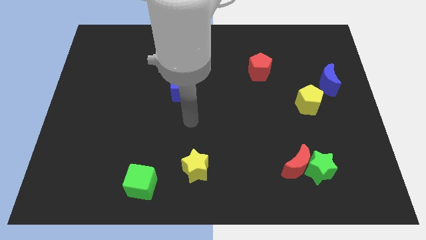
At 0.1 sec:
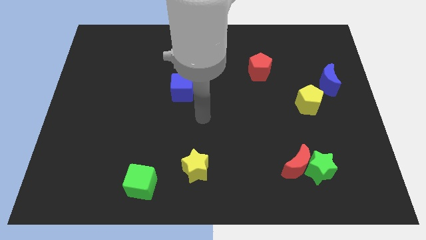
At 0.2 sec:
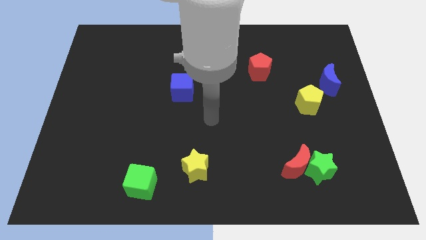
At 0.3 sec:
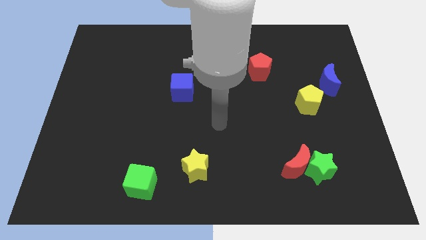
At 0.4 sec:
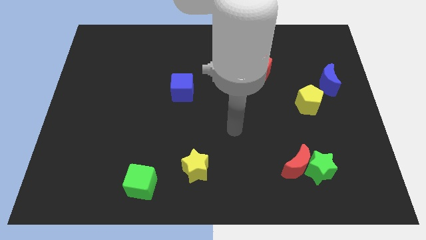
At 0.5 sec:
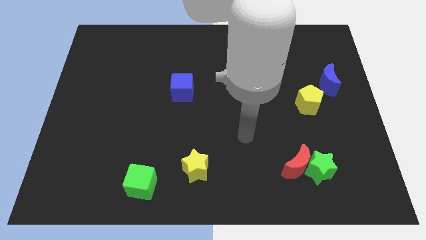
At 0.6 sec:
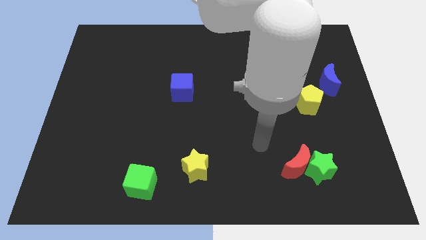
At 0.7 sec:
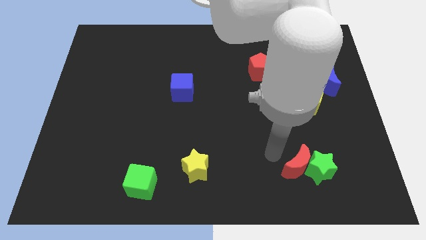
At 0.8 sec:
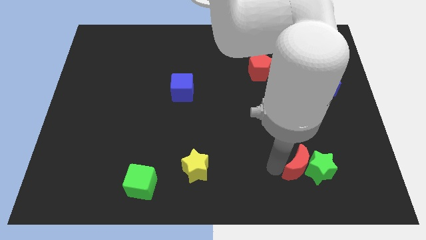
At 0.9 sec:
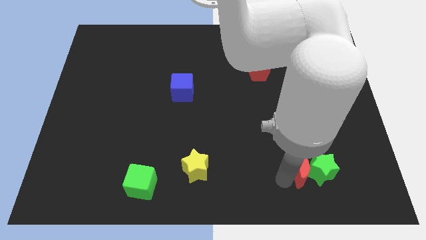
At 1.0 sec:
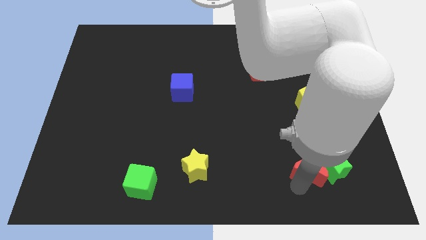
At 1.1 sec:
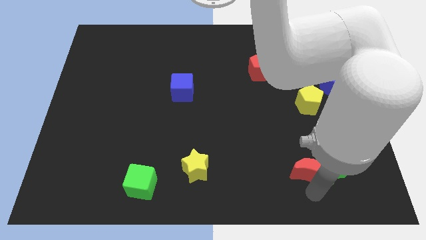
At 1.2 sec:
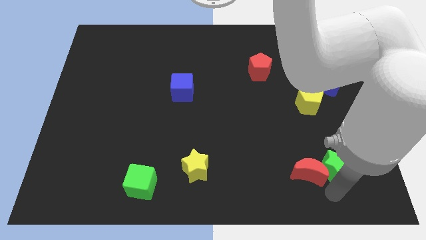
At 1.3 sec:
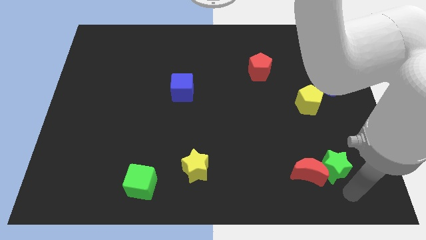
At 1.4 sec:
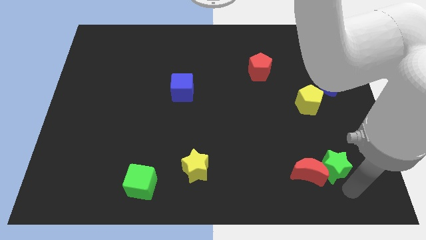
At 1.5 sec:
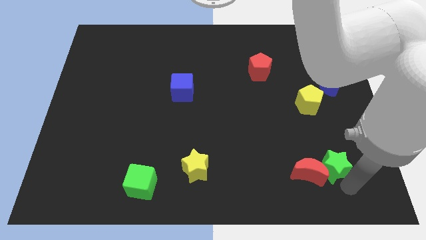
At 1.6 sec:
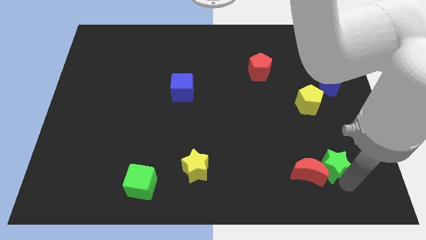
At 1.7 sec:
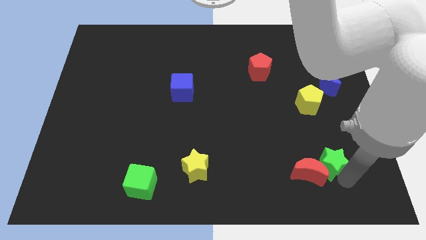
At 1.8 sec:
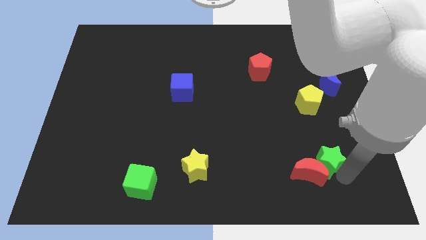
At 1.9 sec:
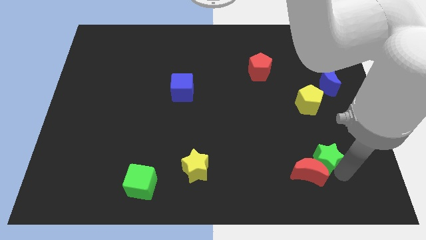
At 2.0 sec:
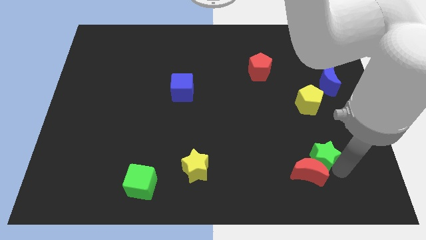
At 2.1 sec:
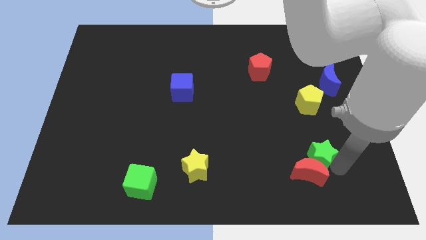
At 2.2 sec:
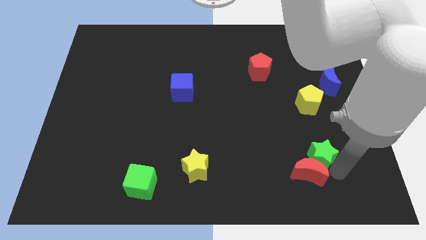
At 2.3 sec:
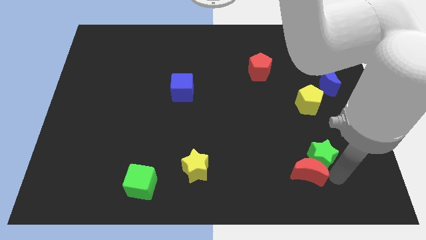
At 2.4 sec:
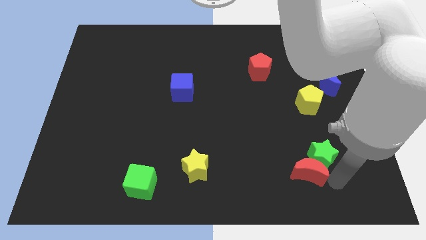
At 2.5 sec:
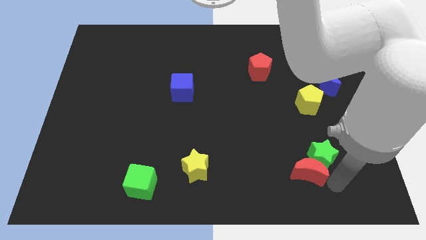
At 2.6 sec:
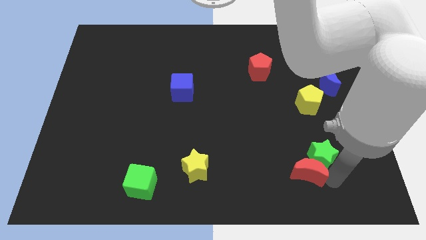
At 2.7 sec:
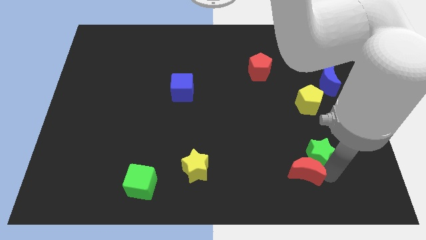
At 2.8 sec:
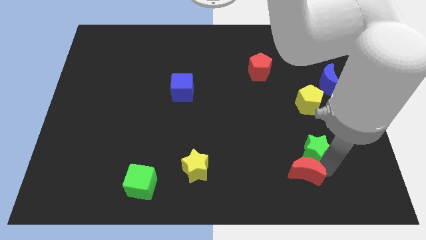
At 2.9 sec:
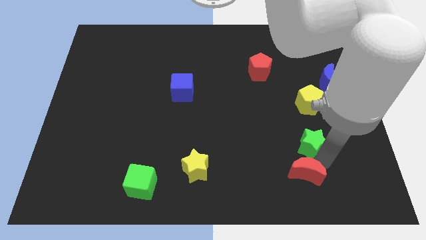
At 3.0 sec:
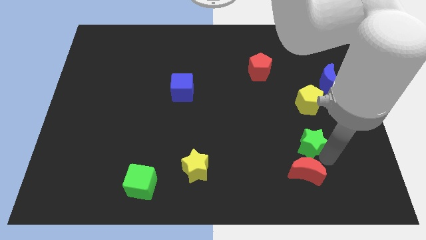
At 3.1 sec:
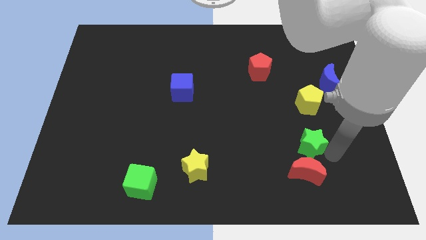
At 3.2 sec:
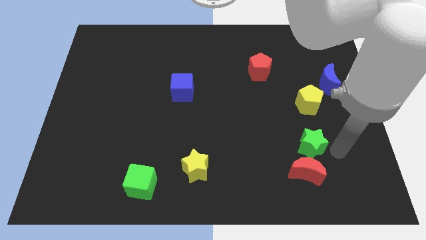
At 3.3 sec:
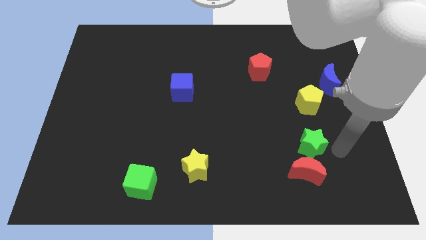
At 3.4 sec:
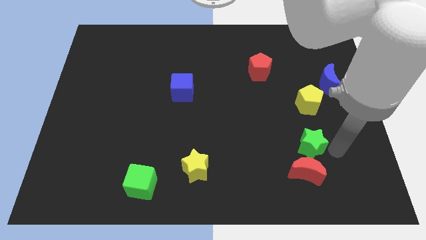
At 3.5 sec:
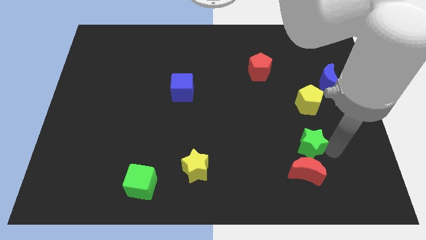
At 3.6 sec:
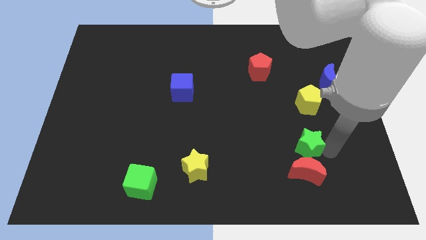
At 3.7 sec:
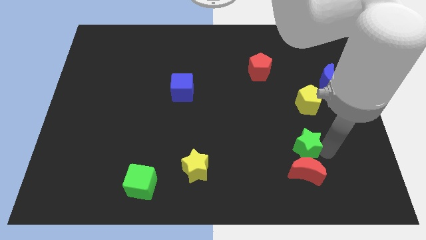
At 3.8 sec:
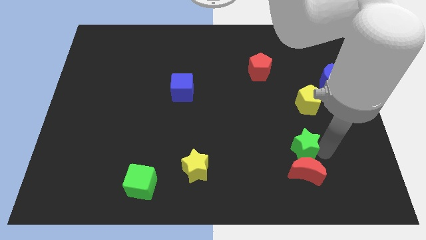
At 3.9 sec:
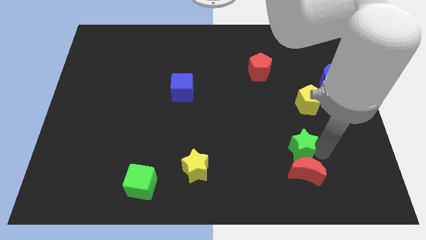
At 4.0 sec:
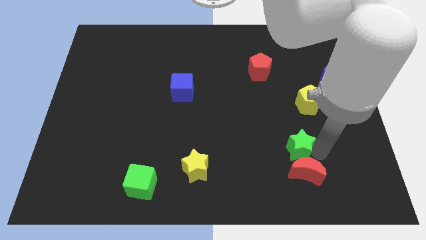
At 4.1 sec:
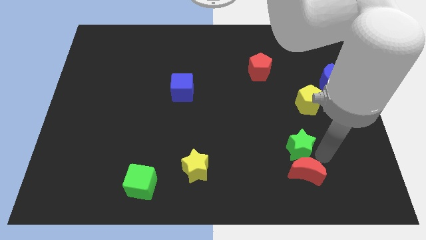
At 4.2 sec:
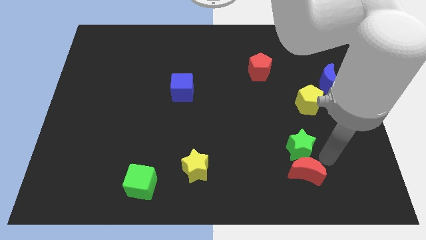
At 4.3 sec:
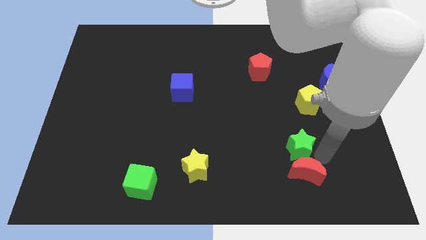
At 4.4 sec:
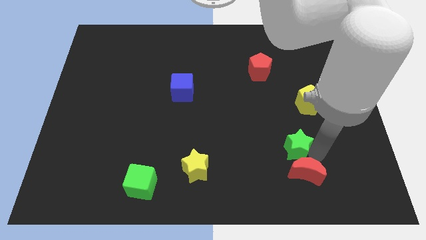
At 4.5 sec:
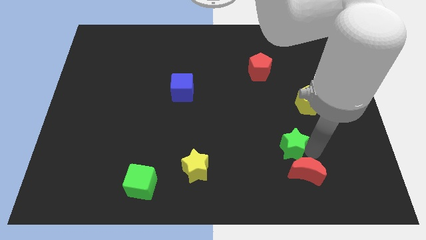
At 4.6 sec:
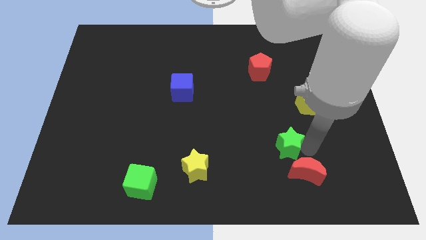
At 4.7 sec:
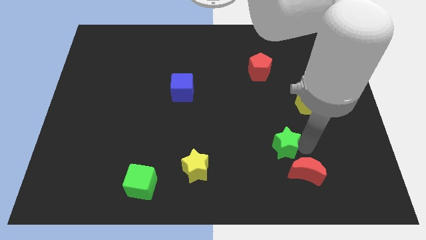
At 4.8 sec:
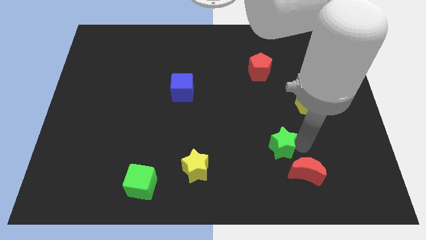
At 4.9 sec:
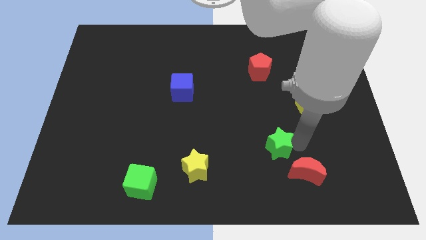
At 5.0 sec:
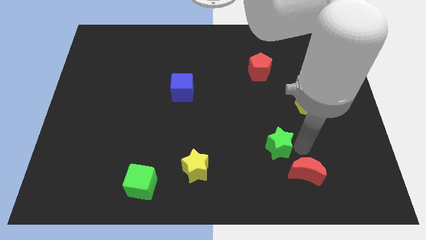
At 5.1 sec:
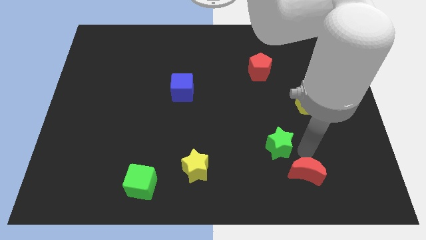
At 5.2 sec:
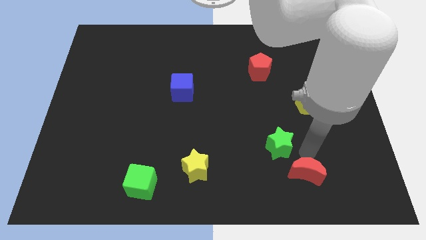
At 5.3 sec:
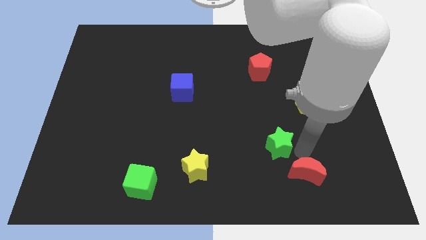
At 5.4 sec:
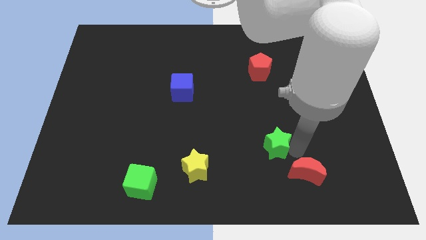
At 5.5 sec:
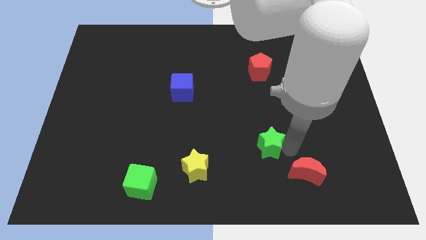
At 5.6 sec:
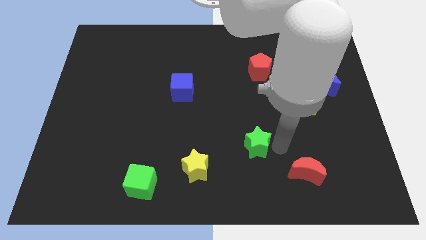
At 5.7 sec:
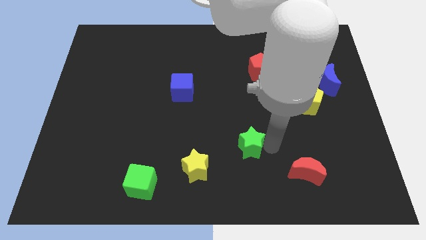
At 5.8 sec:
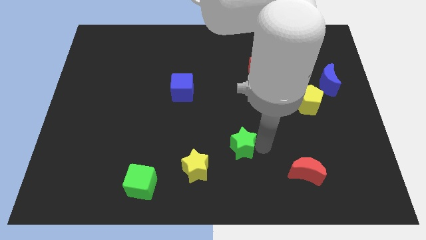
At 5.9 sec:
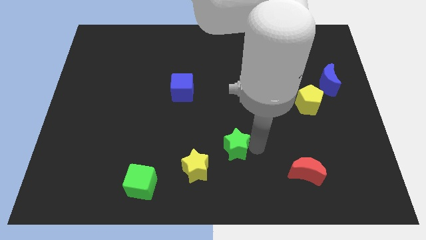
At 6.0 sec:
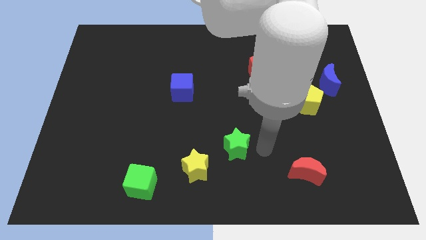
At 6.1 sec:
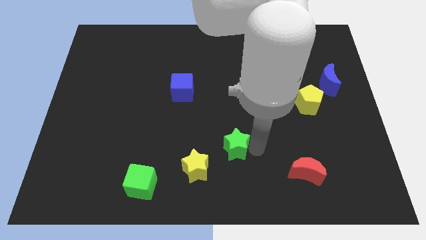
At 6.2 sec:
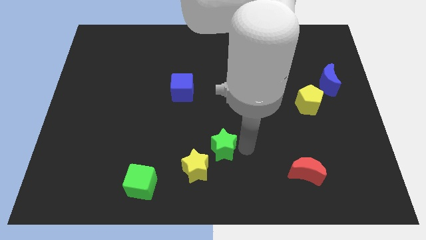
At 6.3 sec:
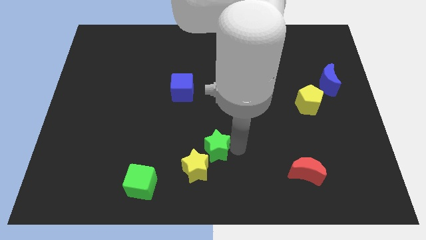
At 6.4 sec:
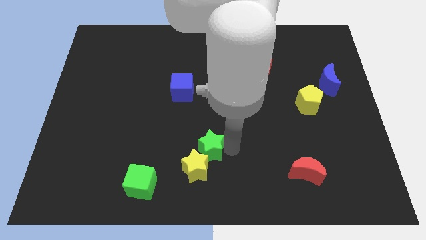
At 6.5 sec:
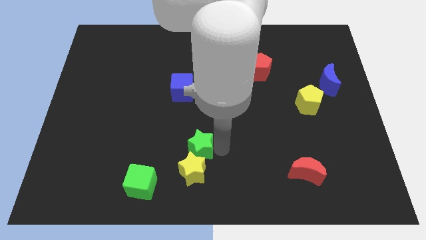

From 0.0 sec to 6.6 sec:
push the green star to the top left of the yellow star

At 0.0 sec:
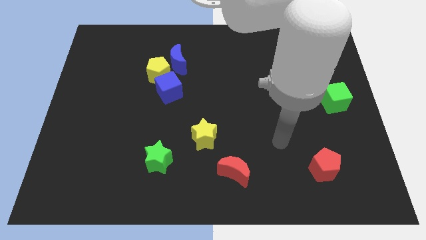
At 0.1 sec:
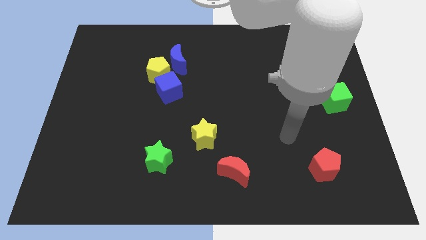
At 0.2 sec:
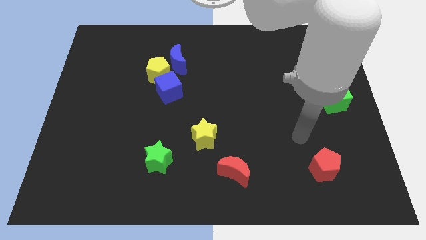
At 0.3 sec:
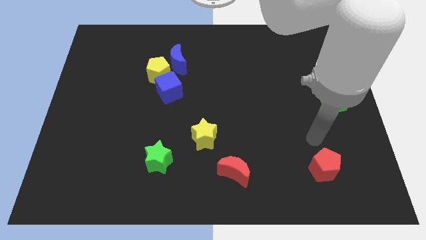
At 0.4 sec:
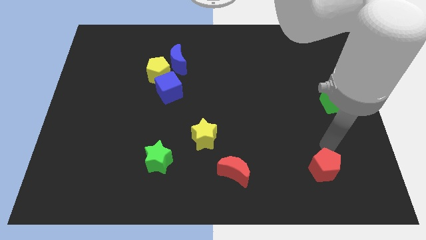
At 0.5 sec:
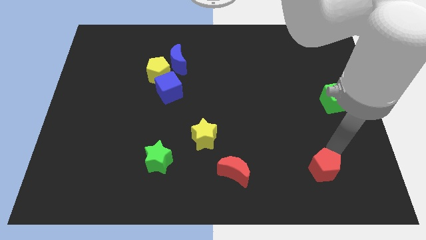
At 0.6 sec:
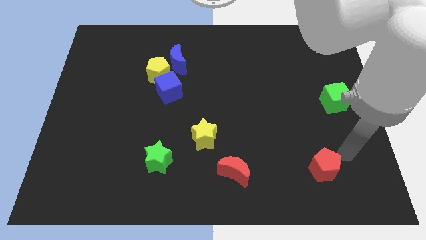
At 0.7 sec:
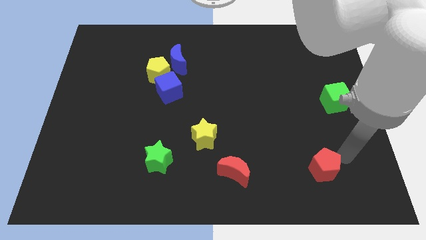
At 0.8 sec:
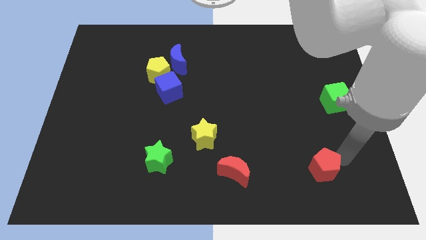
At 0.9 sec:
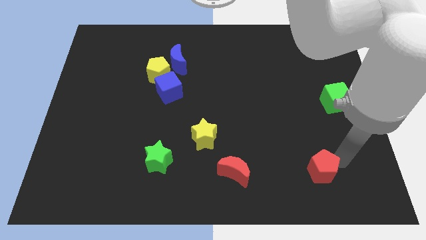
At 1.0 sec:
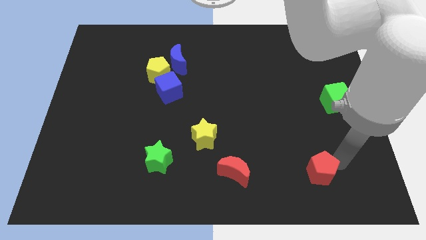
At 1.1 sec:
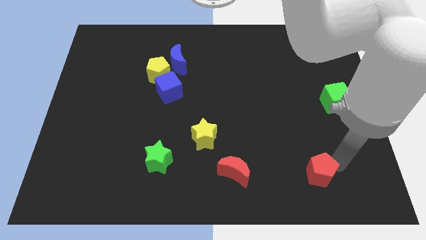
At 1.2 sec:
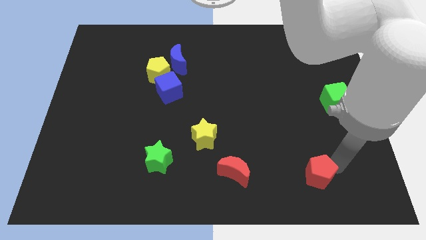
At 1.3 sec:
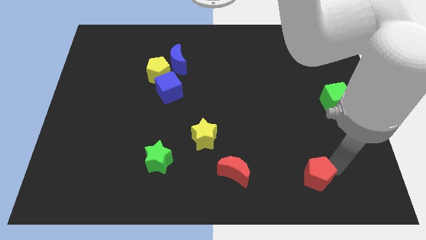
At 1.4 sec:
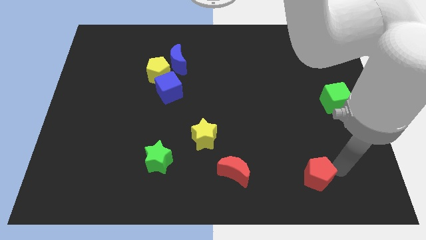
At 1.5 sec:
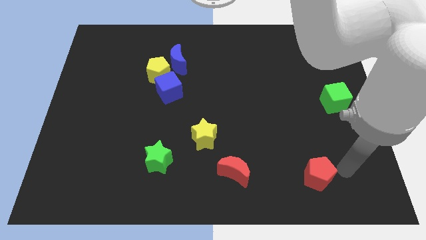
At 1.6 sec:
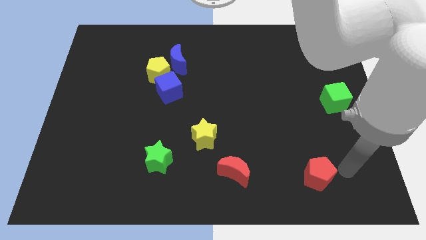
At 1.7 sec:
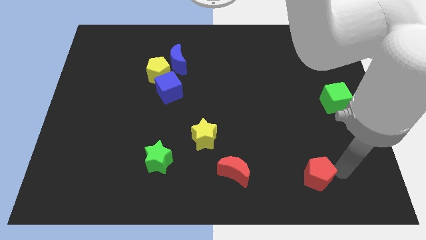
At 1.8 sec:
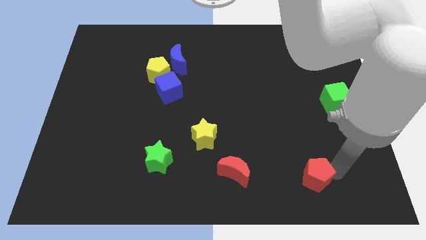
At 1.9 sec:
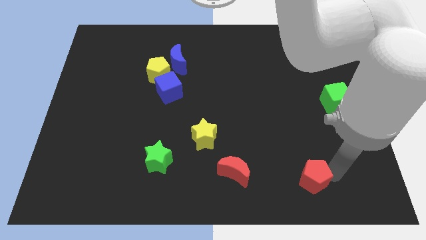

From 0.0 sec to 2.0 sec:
slide the red pentagon right of the red moon
